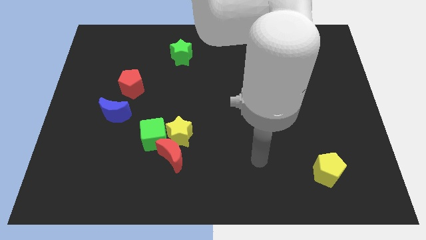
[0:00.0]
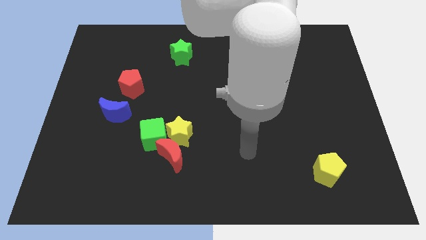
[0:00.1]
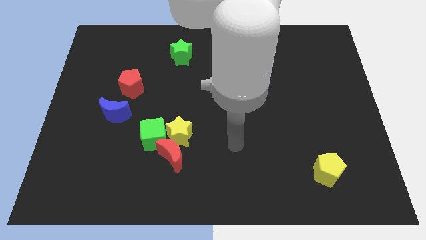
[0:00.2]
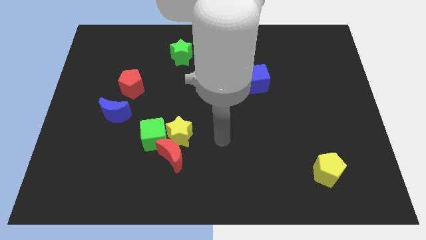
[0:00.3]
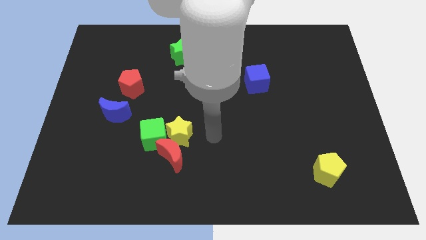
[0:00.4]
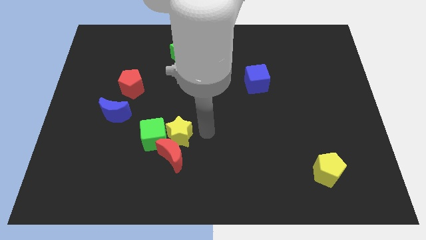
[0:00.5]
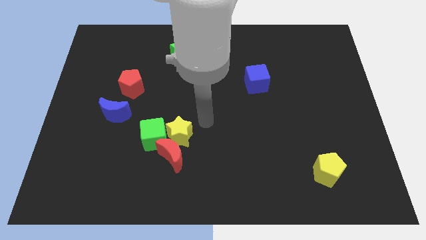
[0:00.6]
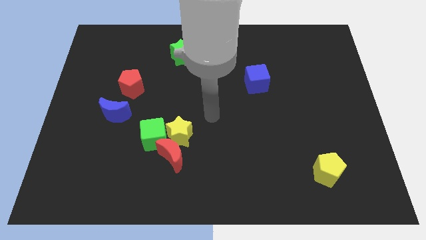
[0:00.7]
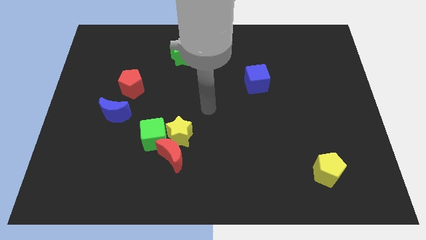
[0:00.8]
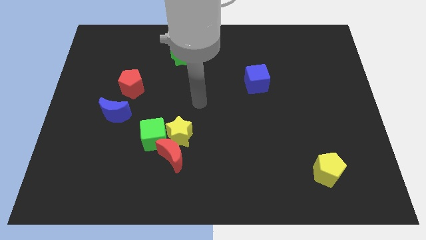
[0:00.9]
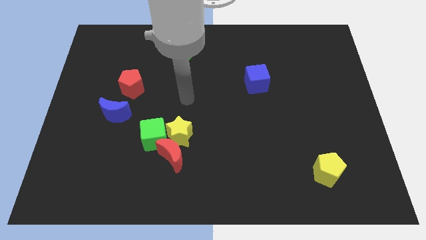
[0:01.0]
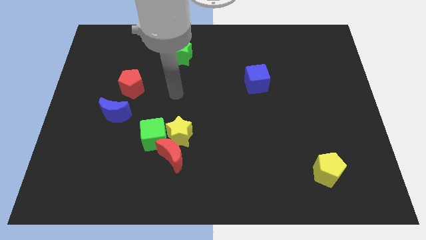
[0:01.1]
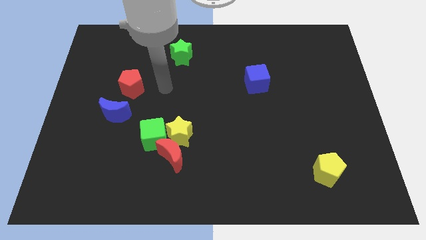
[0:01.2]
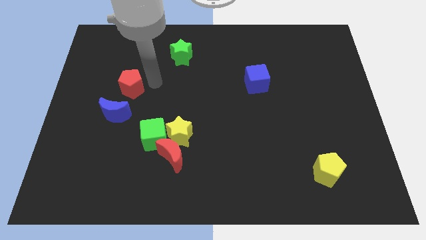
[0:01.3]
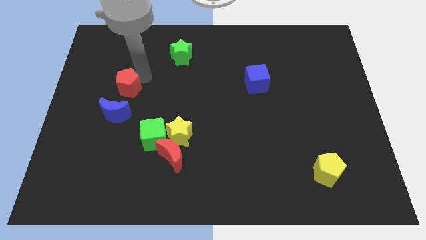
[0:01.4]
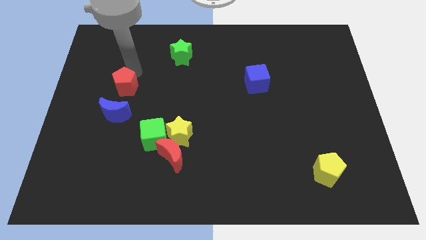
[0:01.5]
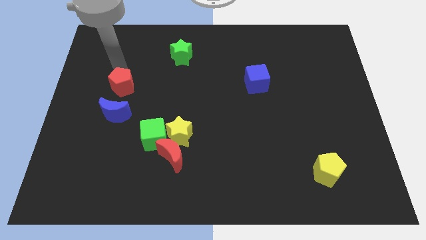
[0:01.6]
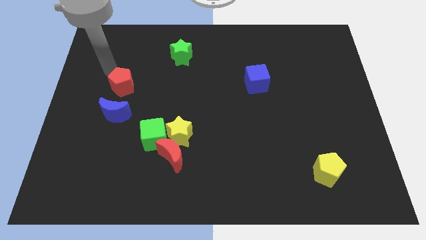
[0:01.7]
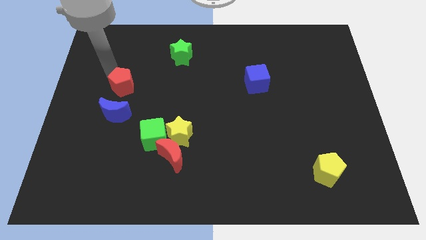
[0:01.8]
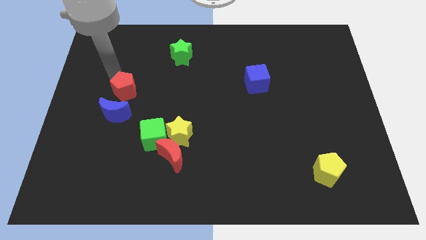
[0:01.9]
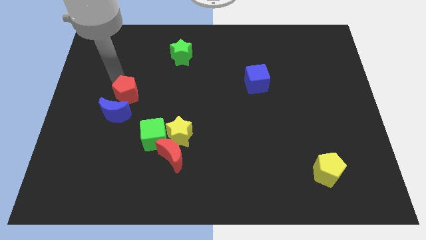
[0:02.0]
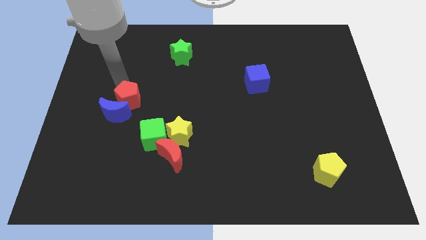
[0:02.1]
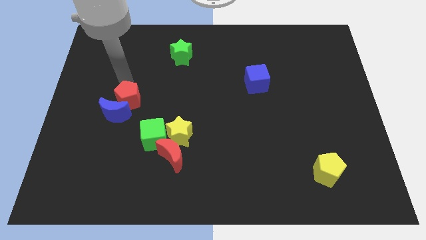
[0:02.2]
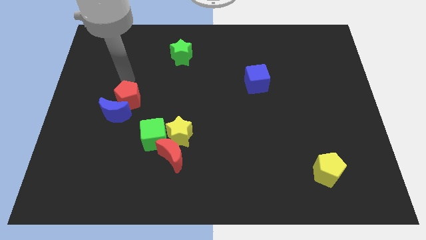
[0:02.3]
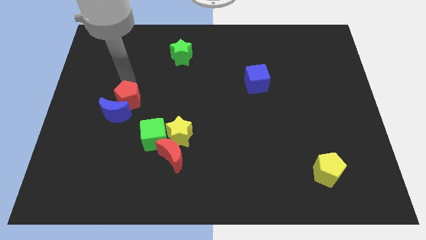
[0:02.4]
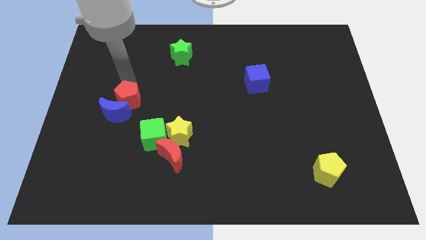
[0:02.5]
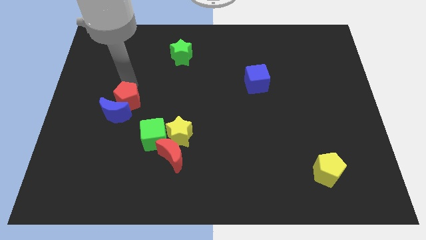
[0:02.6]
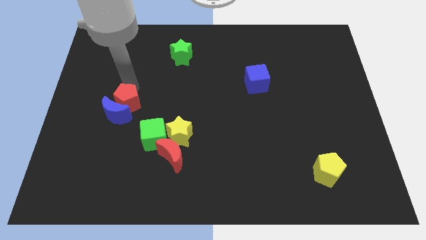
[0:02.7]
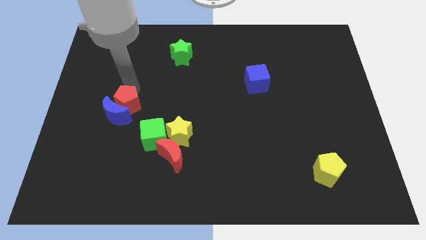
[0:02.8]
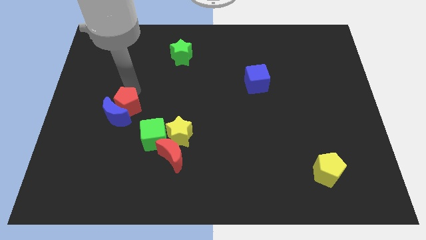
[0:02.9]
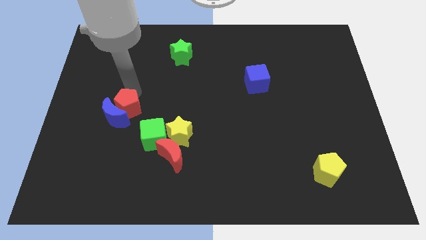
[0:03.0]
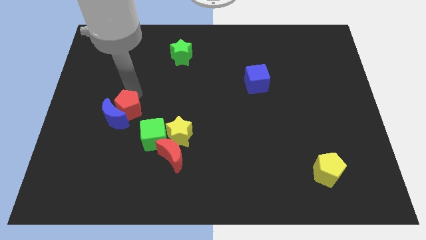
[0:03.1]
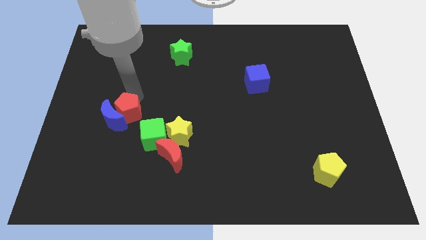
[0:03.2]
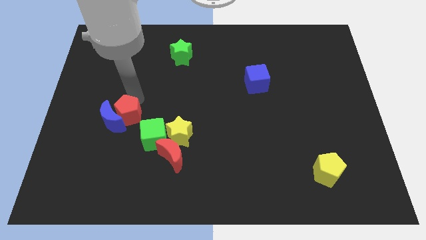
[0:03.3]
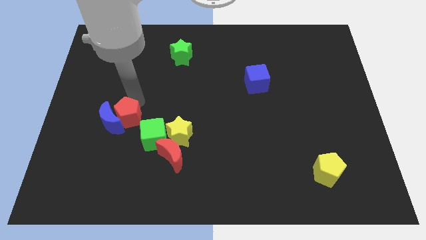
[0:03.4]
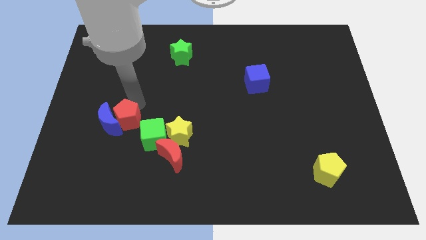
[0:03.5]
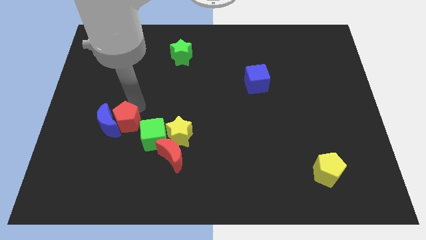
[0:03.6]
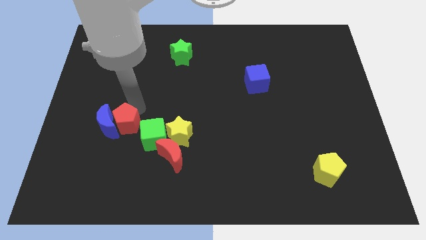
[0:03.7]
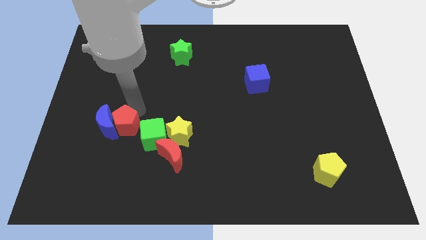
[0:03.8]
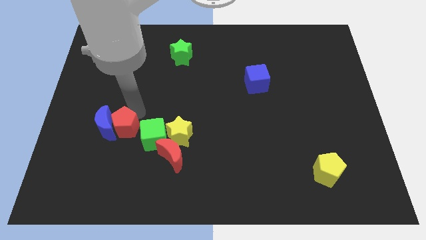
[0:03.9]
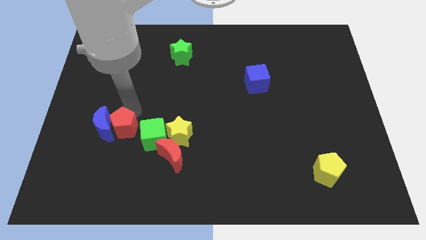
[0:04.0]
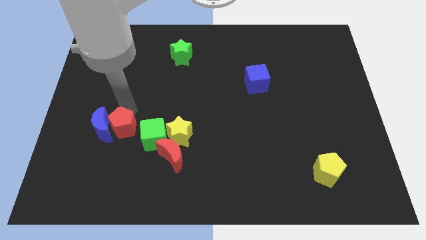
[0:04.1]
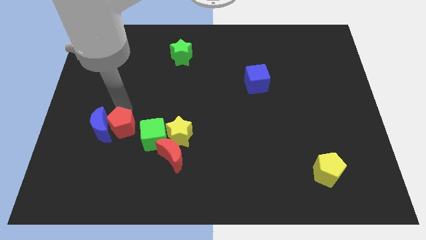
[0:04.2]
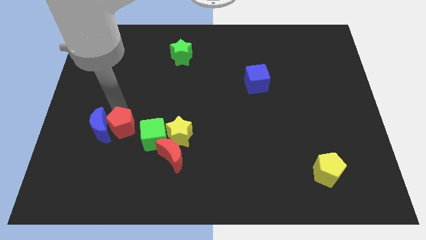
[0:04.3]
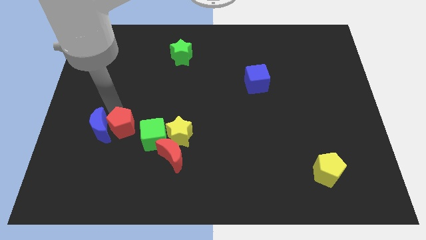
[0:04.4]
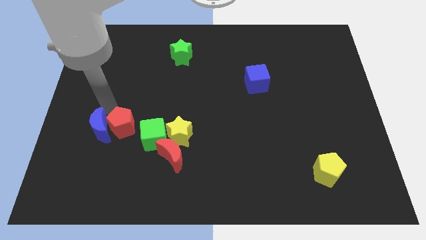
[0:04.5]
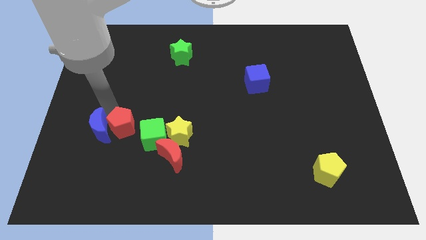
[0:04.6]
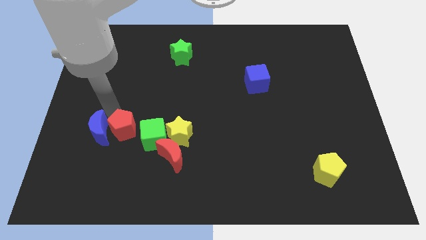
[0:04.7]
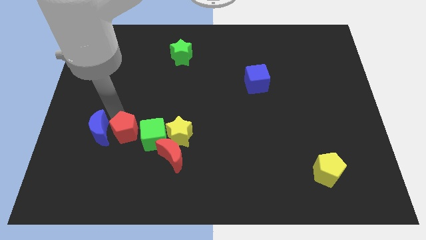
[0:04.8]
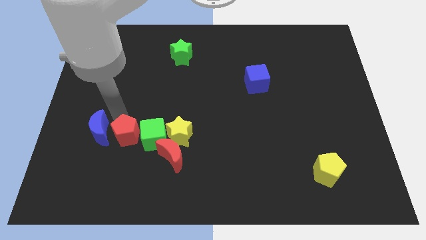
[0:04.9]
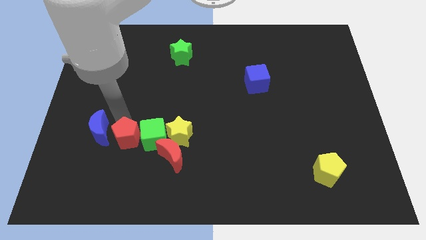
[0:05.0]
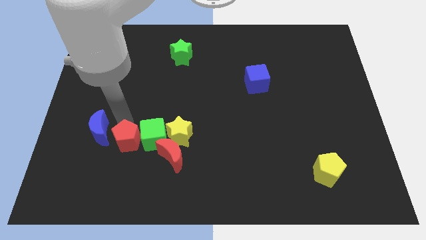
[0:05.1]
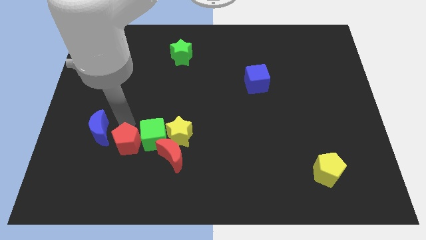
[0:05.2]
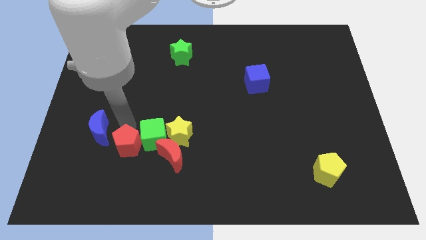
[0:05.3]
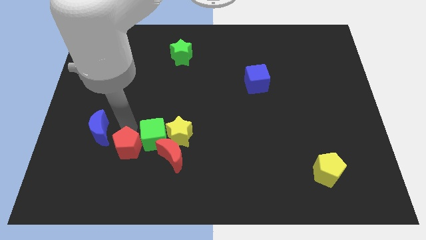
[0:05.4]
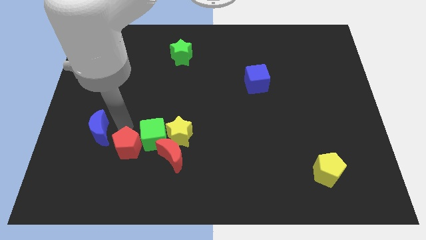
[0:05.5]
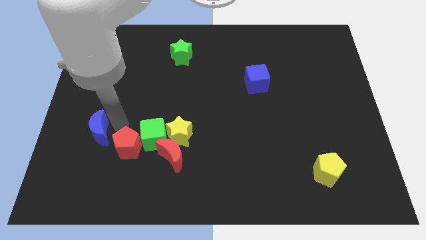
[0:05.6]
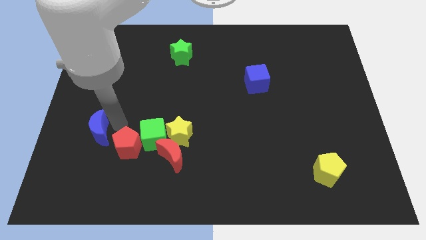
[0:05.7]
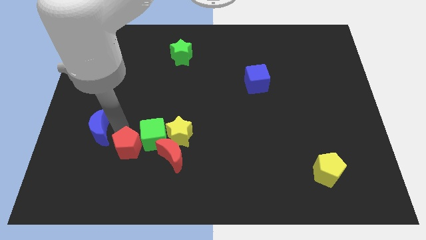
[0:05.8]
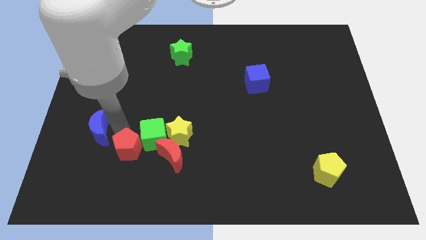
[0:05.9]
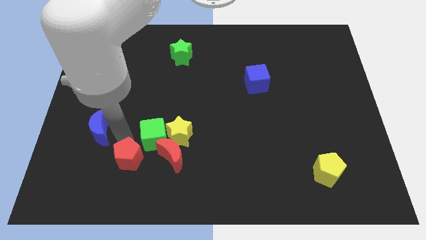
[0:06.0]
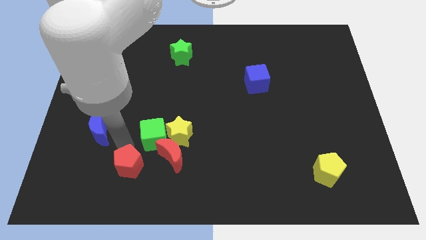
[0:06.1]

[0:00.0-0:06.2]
move the red pentagon diagonally down and to the left of the red moon

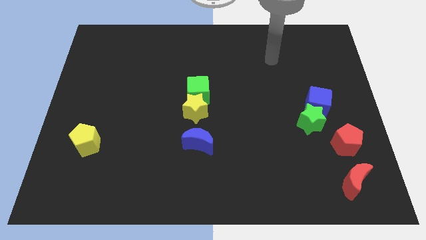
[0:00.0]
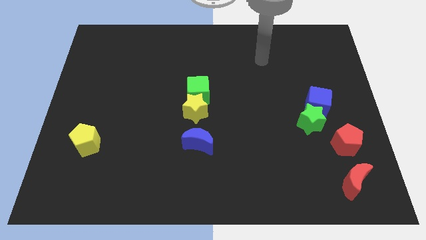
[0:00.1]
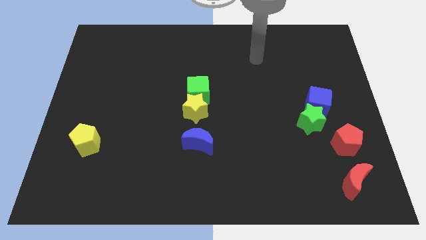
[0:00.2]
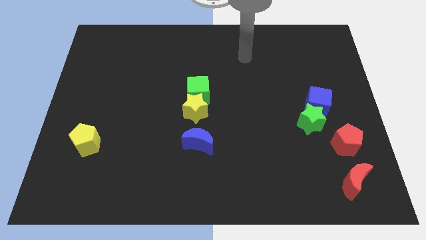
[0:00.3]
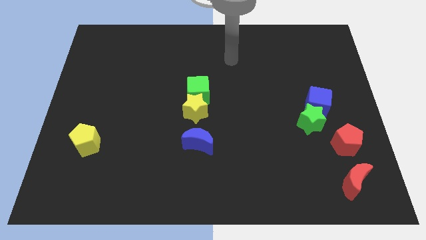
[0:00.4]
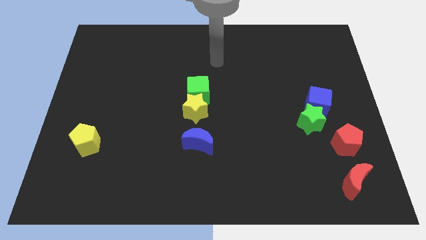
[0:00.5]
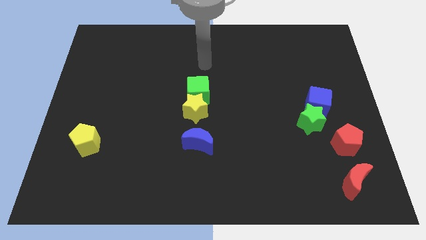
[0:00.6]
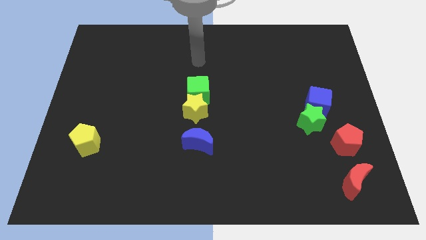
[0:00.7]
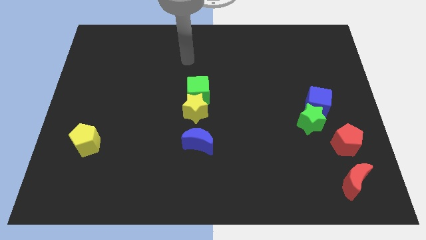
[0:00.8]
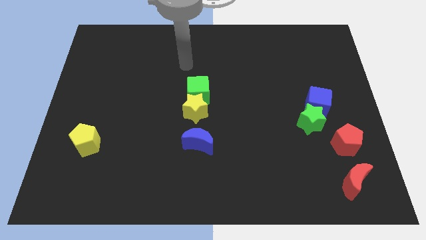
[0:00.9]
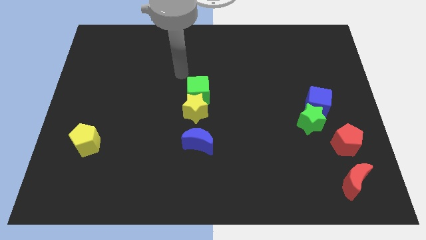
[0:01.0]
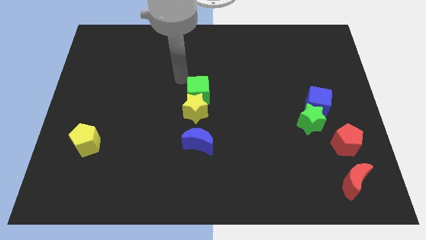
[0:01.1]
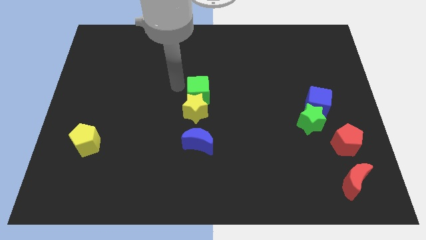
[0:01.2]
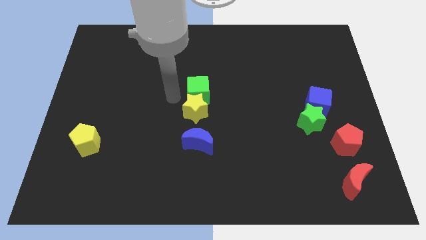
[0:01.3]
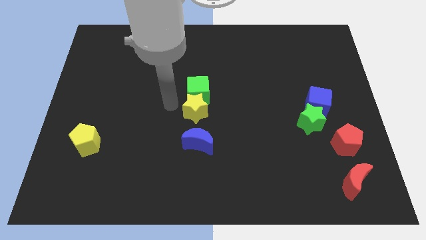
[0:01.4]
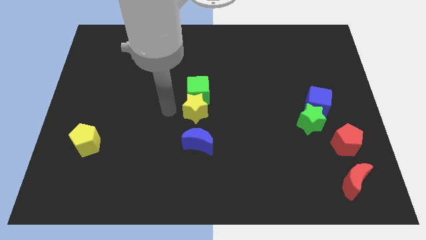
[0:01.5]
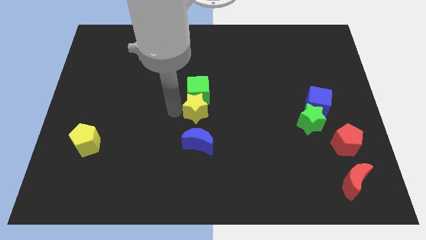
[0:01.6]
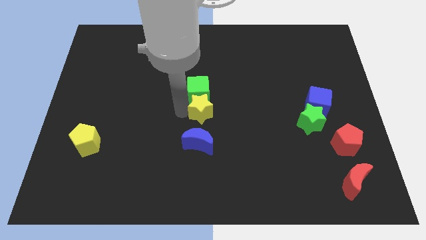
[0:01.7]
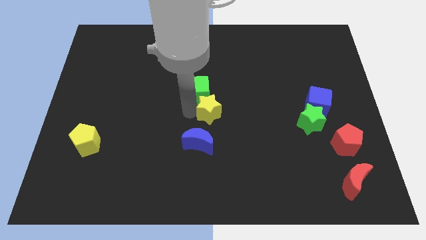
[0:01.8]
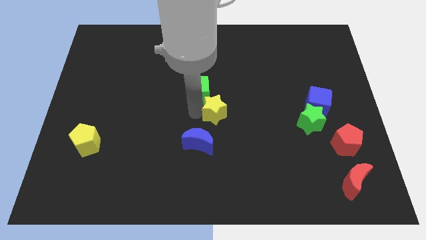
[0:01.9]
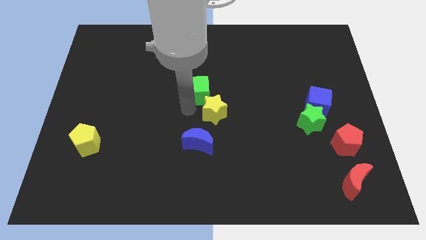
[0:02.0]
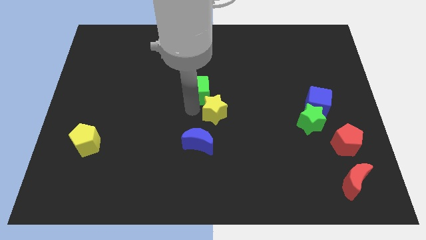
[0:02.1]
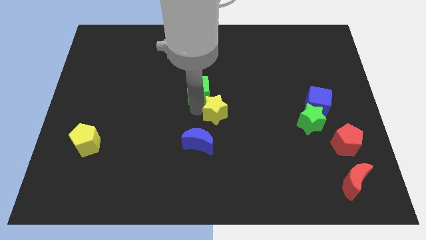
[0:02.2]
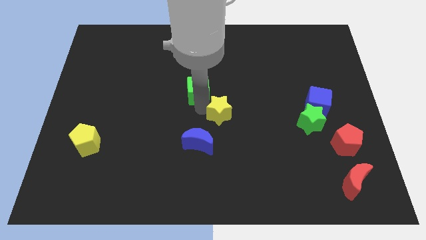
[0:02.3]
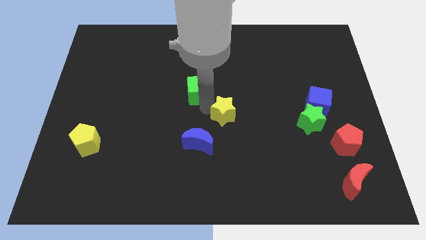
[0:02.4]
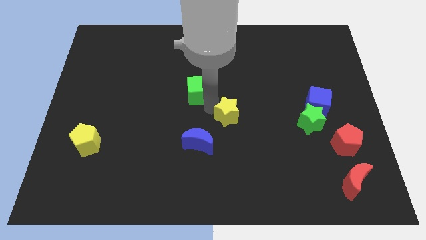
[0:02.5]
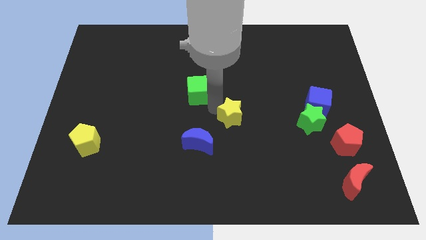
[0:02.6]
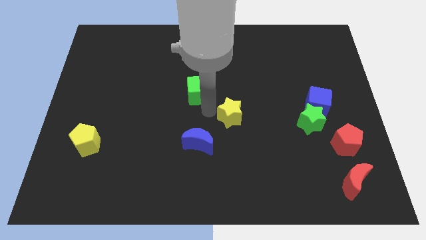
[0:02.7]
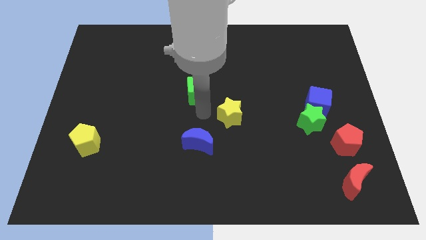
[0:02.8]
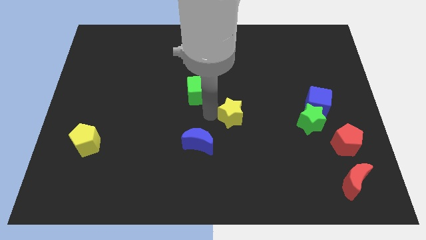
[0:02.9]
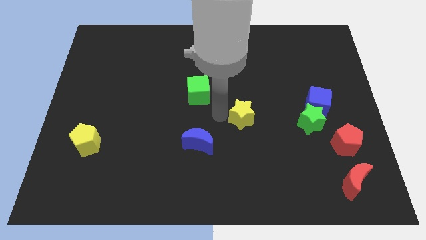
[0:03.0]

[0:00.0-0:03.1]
move the yellow star to the left of the green star
